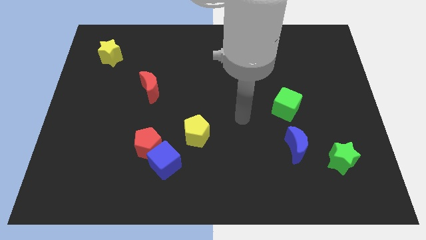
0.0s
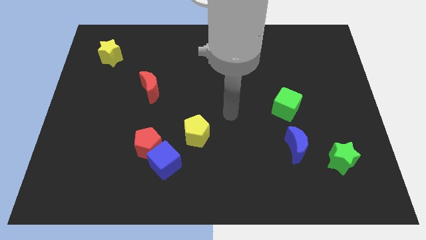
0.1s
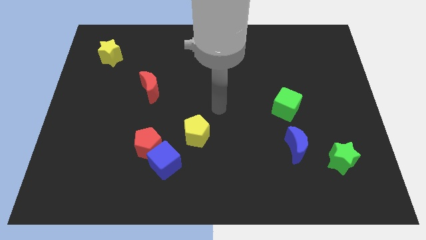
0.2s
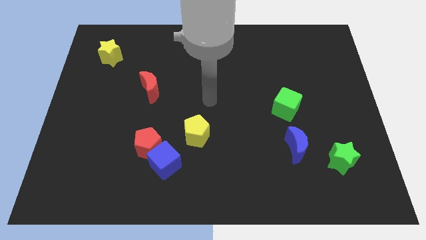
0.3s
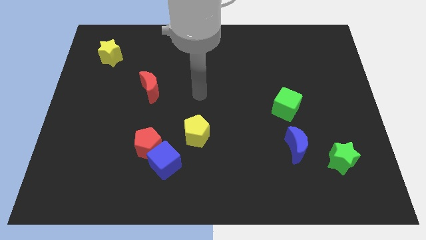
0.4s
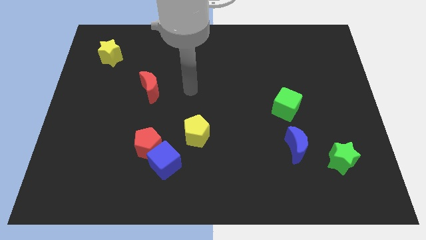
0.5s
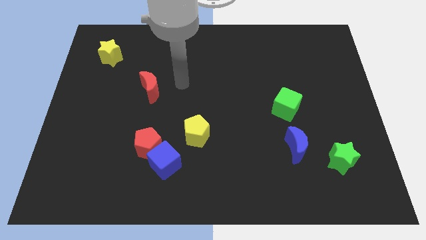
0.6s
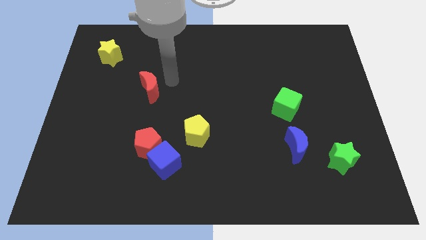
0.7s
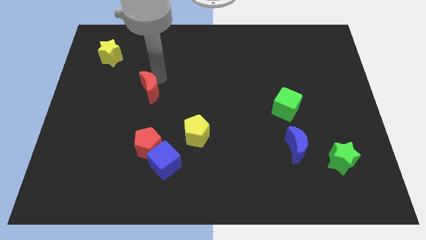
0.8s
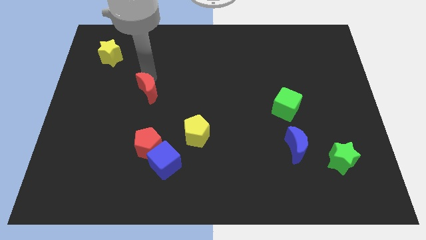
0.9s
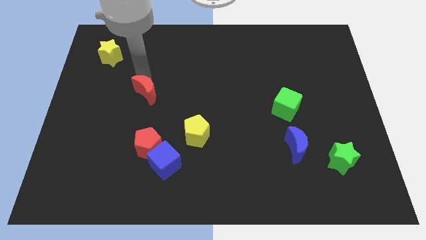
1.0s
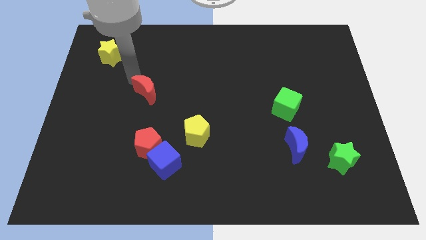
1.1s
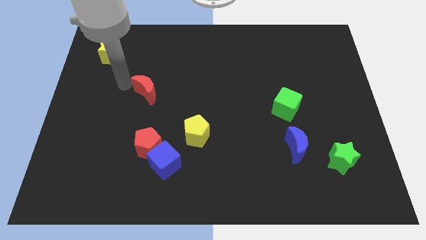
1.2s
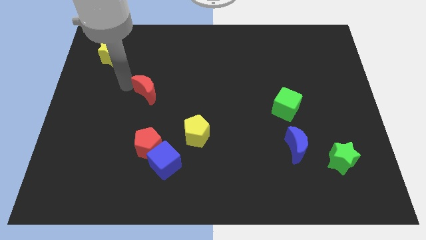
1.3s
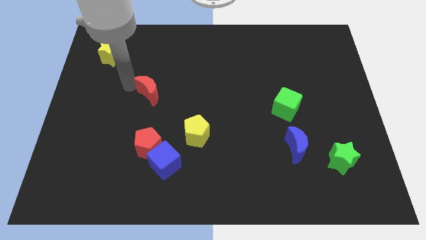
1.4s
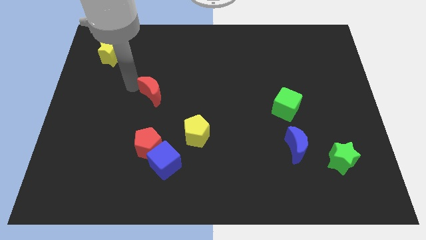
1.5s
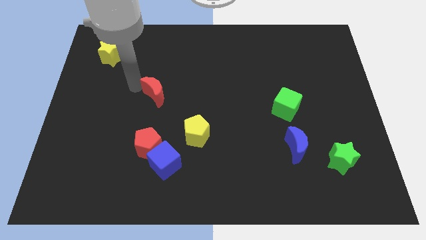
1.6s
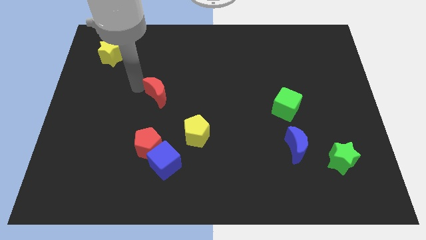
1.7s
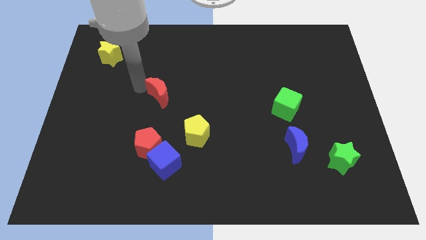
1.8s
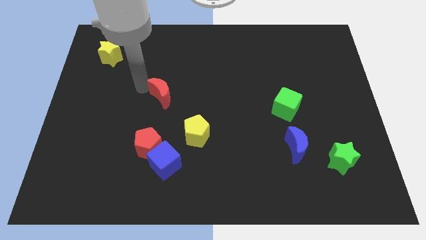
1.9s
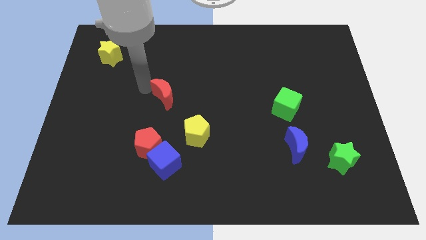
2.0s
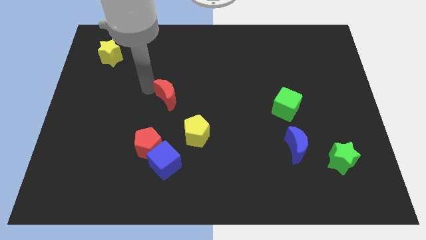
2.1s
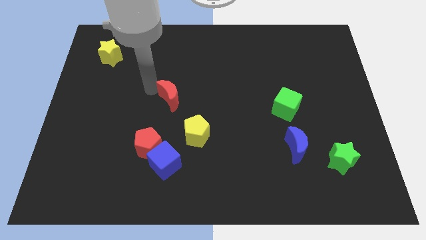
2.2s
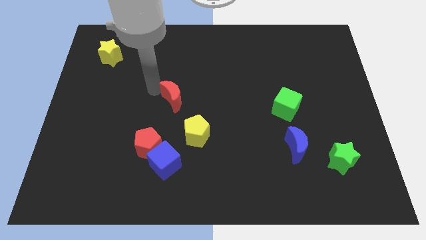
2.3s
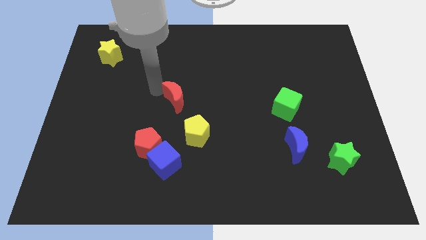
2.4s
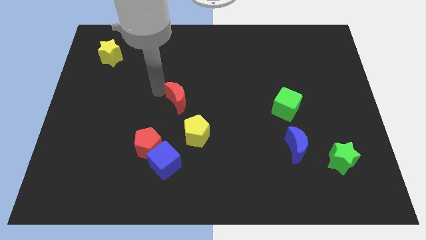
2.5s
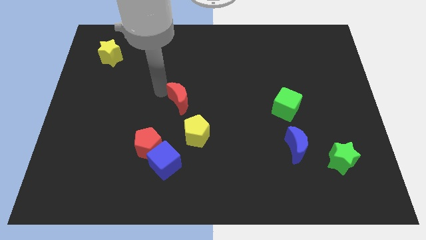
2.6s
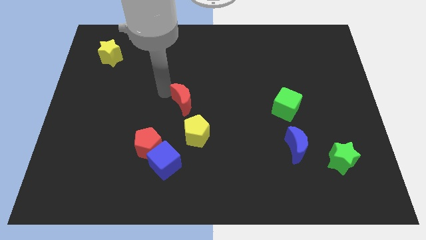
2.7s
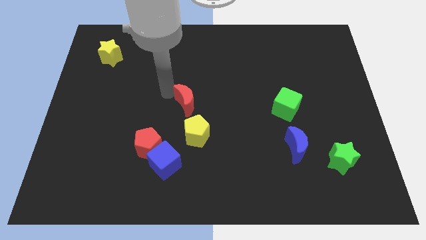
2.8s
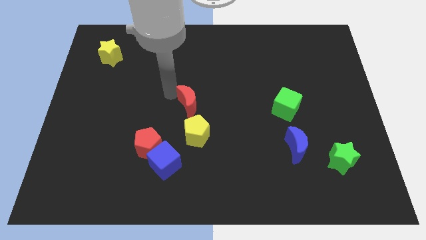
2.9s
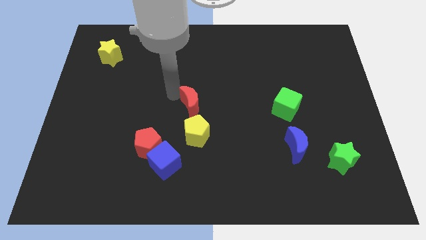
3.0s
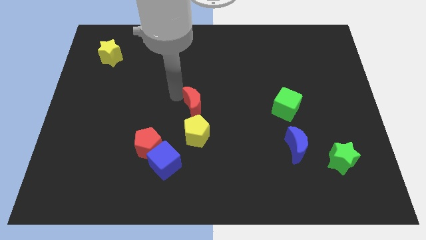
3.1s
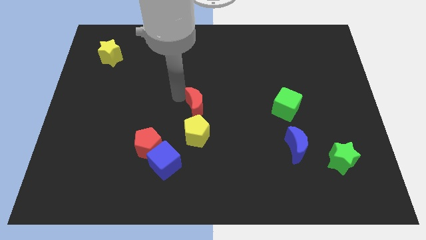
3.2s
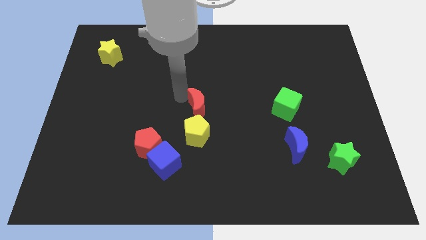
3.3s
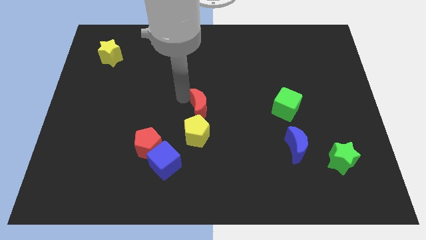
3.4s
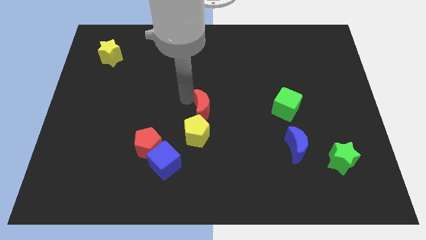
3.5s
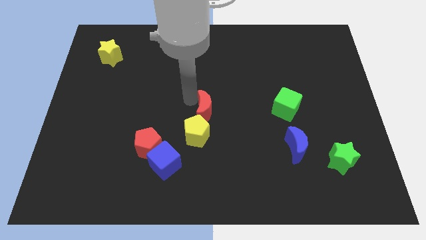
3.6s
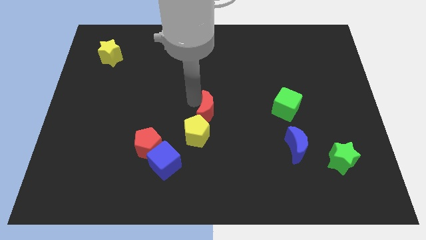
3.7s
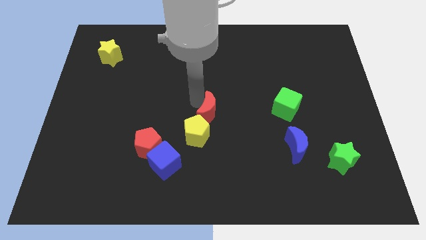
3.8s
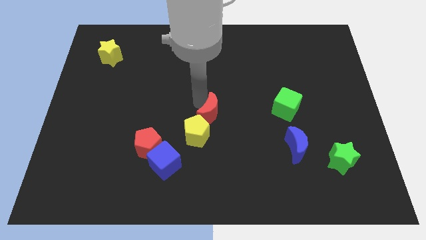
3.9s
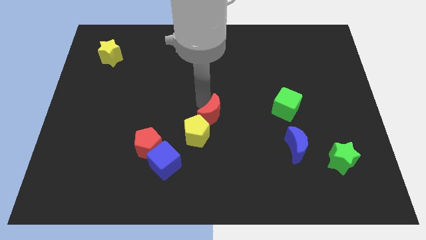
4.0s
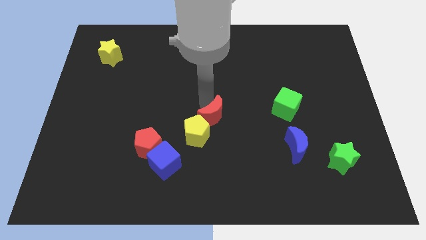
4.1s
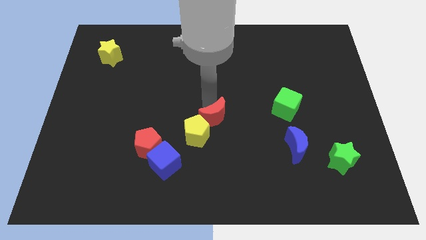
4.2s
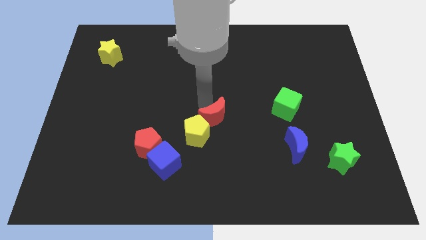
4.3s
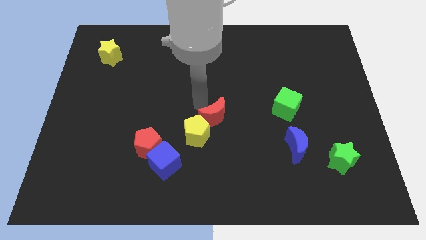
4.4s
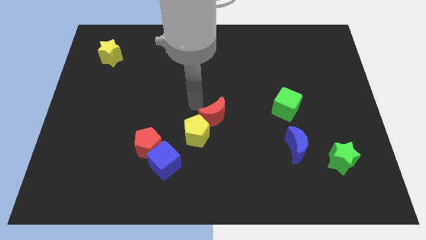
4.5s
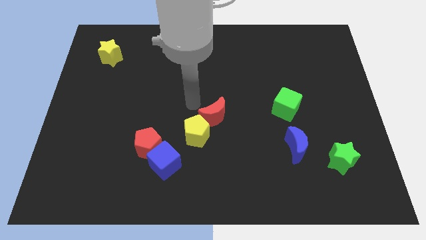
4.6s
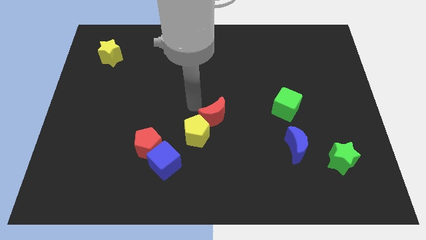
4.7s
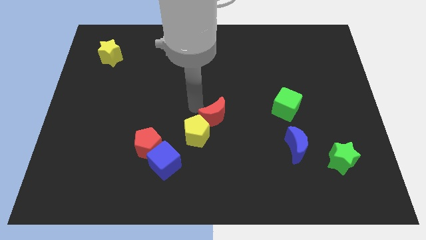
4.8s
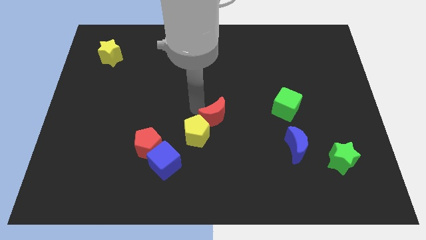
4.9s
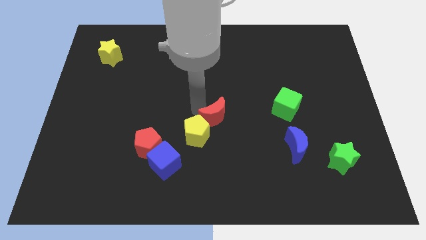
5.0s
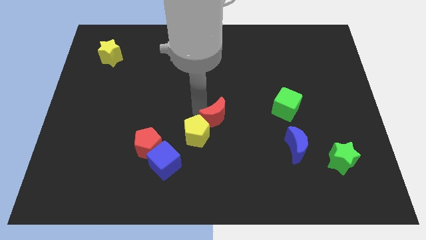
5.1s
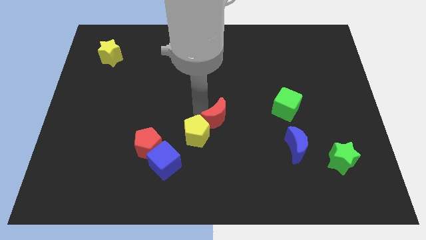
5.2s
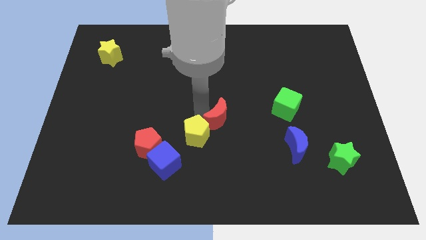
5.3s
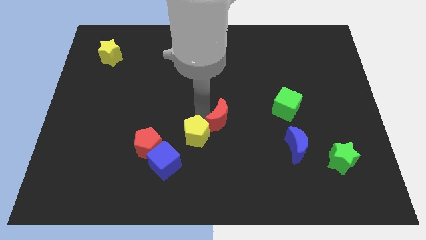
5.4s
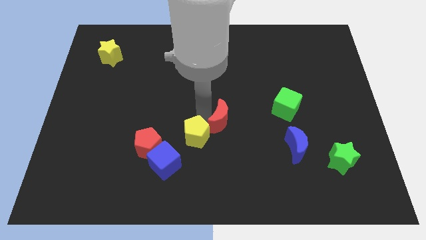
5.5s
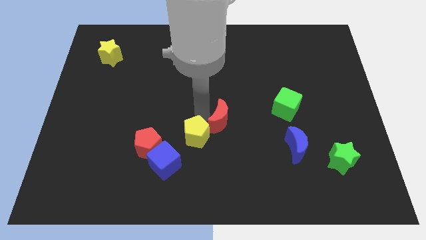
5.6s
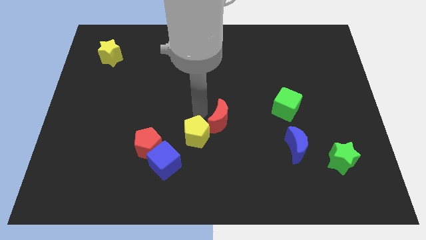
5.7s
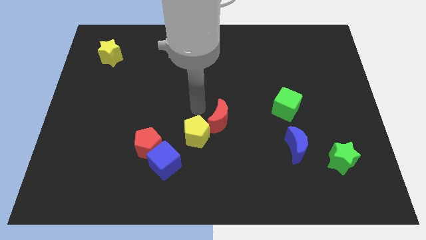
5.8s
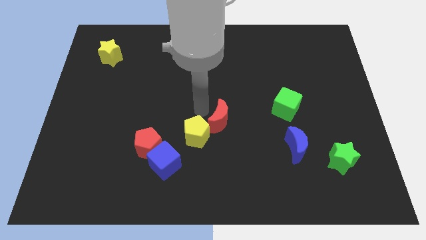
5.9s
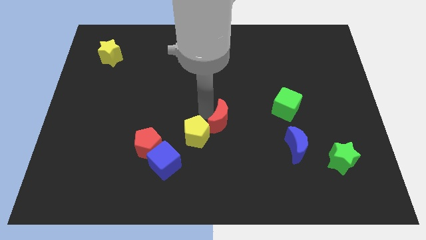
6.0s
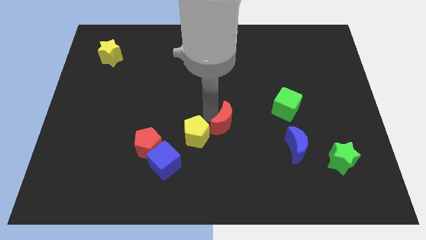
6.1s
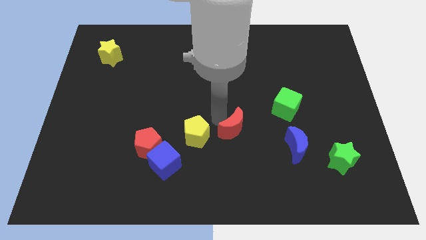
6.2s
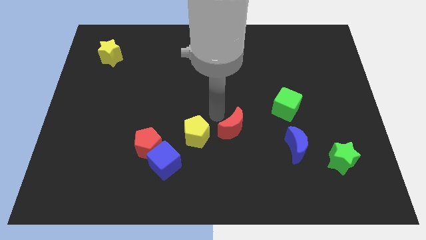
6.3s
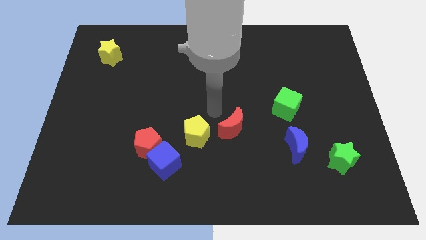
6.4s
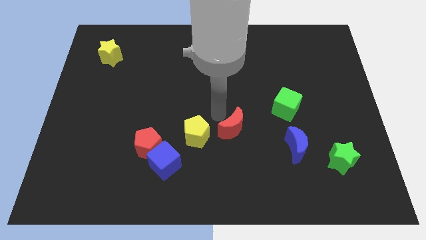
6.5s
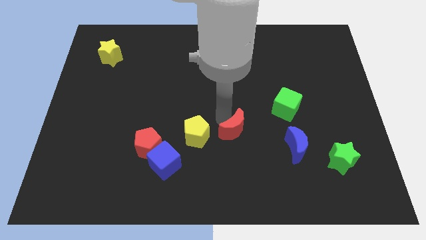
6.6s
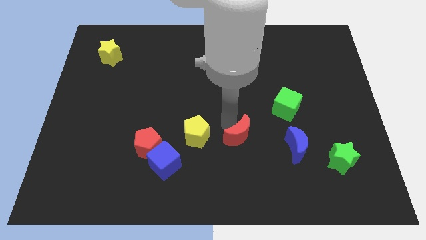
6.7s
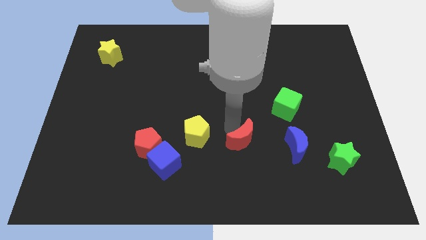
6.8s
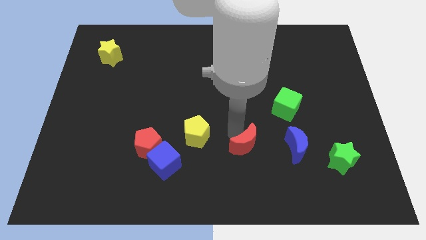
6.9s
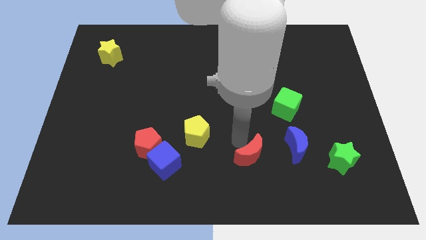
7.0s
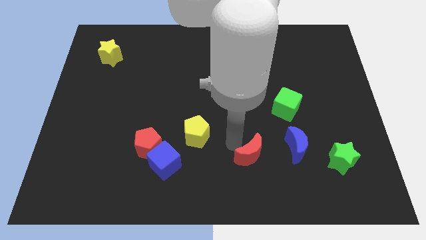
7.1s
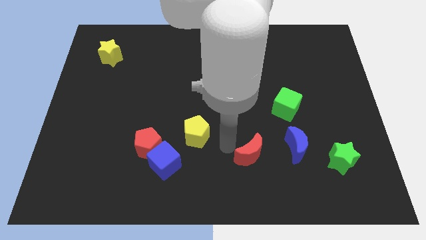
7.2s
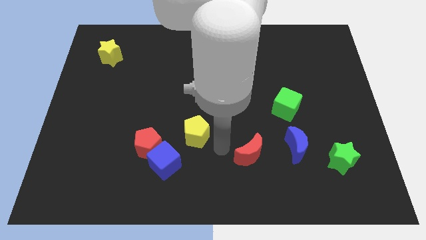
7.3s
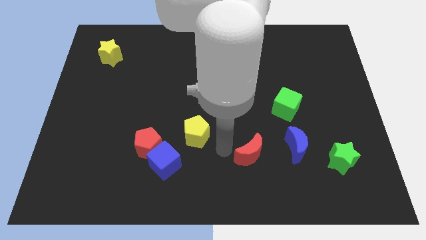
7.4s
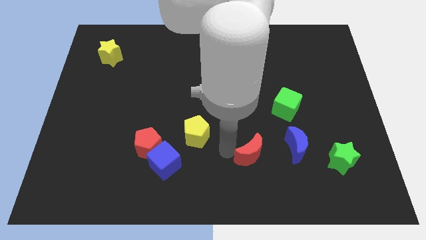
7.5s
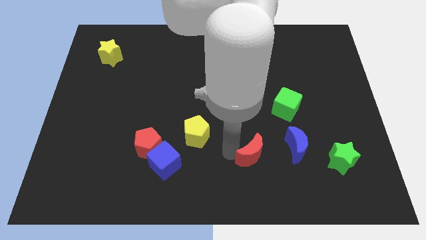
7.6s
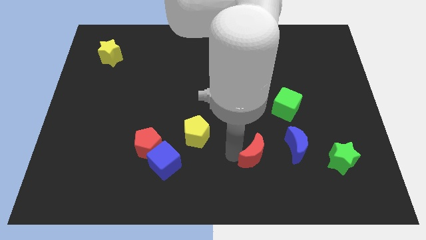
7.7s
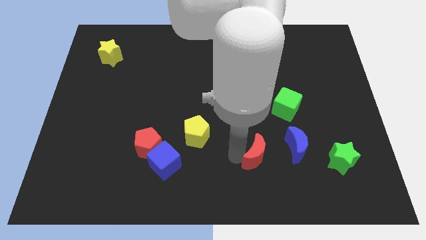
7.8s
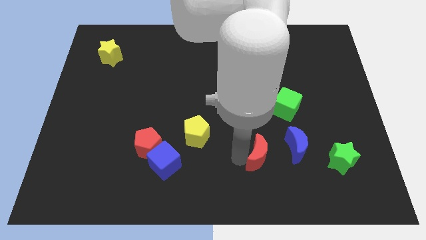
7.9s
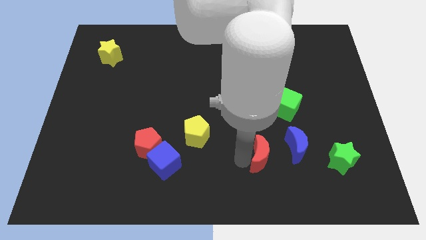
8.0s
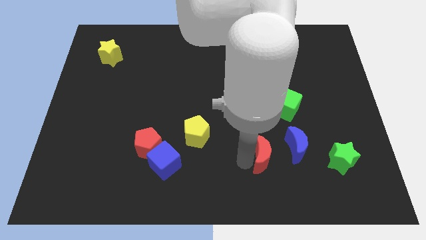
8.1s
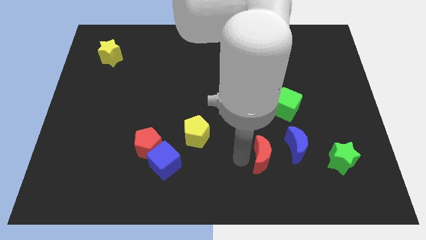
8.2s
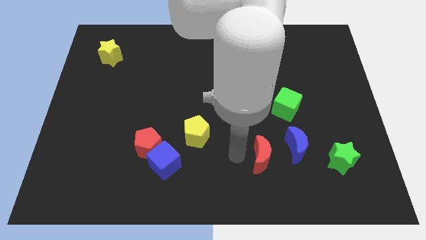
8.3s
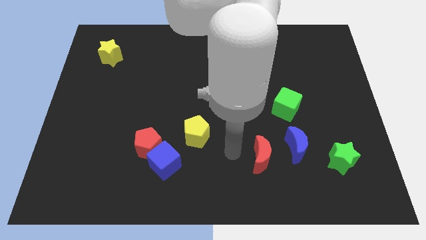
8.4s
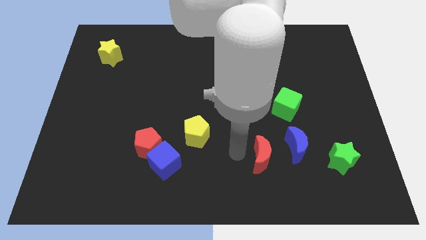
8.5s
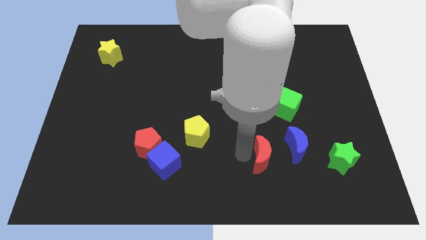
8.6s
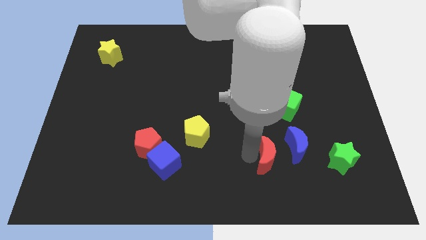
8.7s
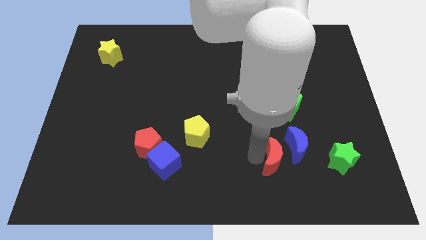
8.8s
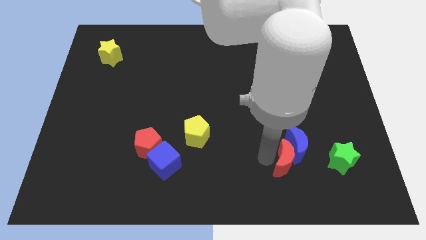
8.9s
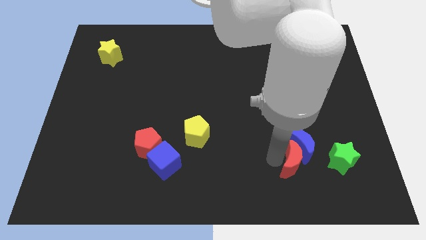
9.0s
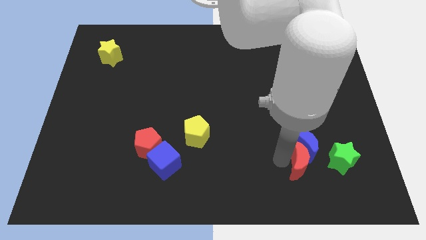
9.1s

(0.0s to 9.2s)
put the red moon to the bottom right of the blue moon
